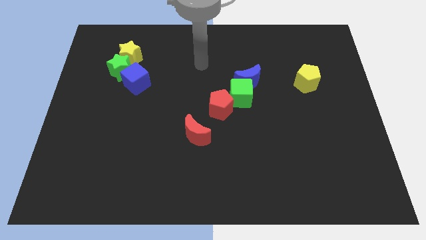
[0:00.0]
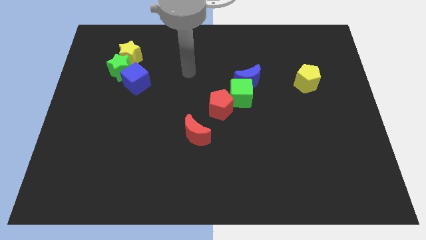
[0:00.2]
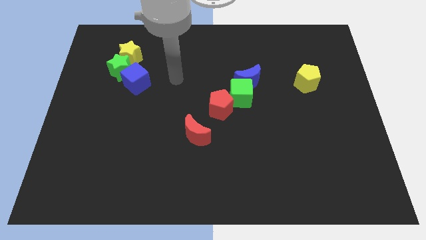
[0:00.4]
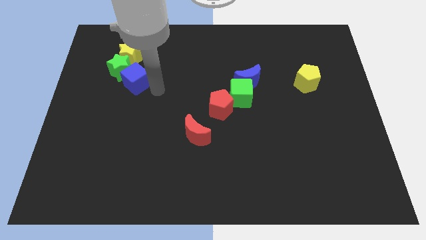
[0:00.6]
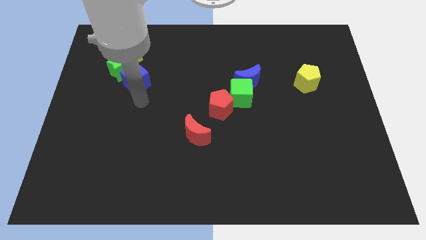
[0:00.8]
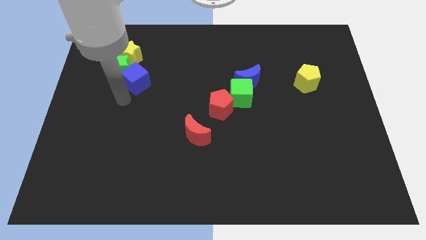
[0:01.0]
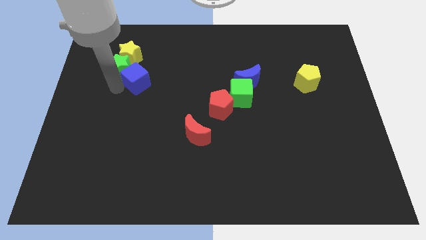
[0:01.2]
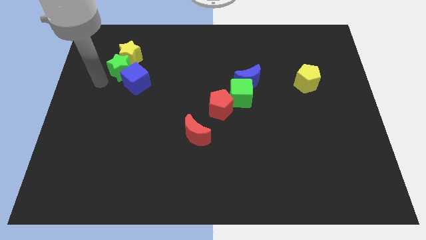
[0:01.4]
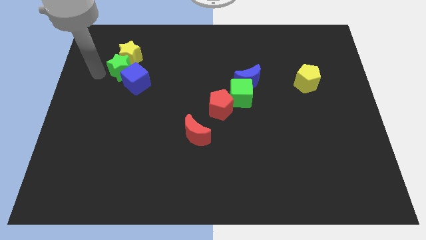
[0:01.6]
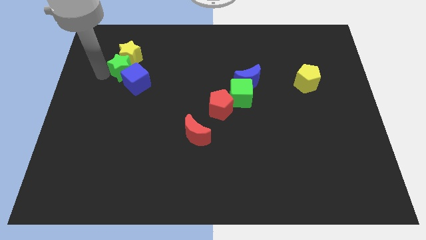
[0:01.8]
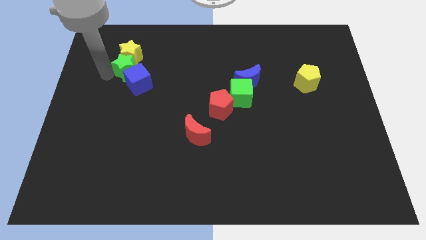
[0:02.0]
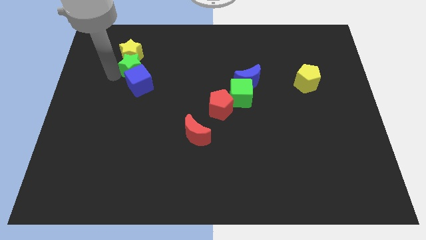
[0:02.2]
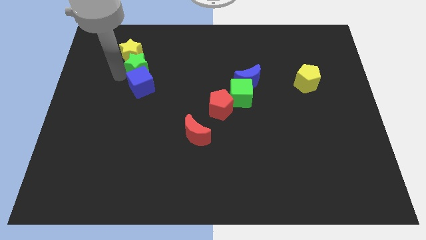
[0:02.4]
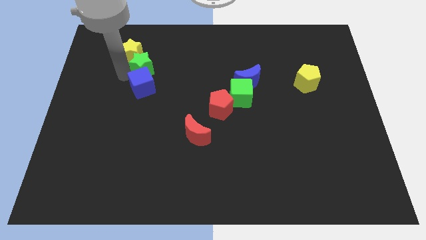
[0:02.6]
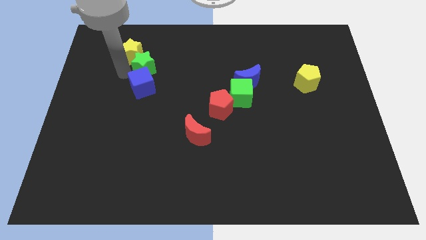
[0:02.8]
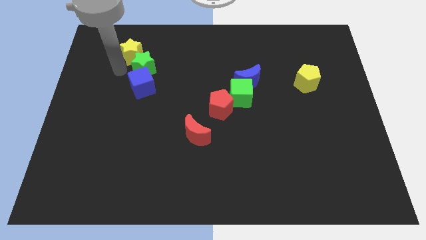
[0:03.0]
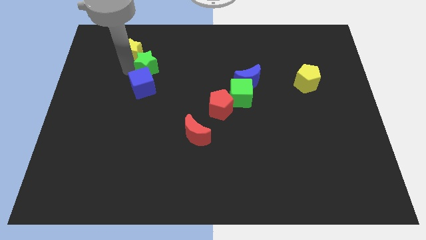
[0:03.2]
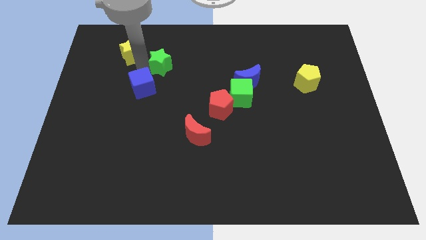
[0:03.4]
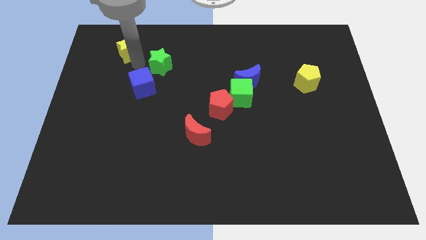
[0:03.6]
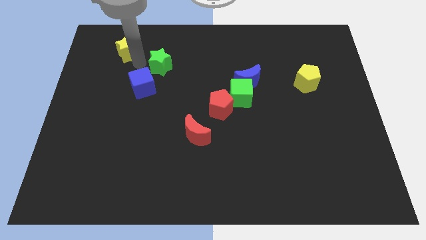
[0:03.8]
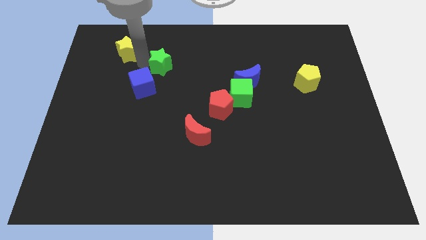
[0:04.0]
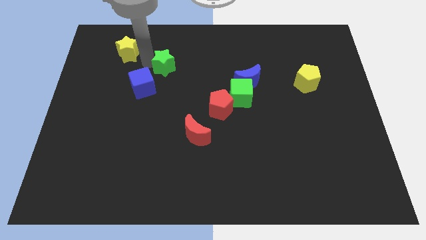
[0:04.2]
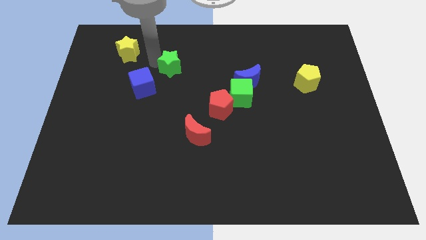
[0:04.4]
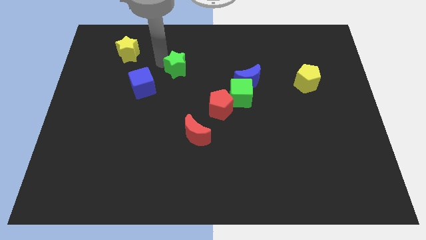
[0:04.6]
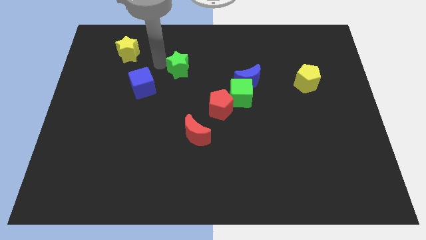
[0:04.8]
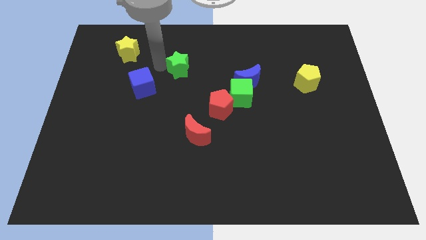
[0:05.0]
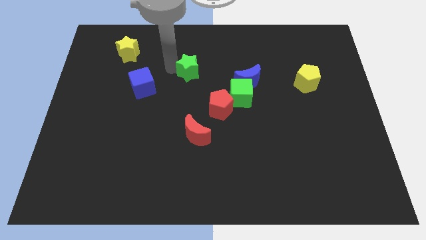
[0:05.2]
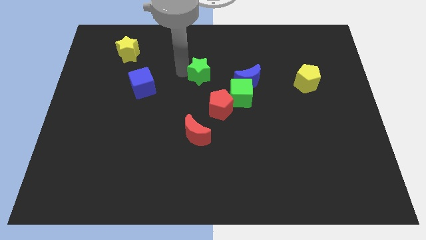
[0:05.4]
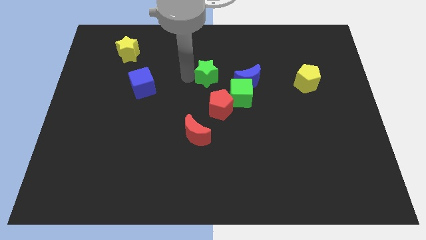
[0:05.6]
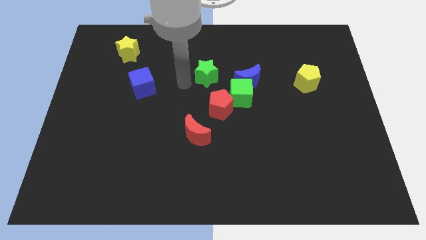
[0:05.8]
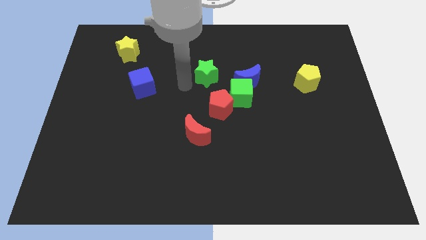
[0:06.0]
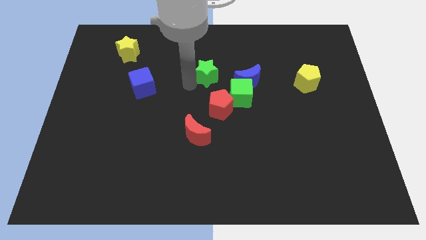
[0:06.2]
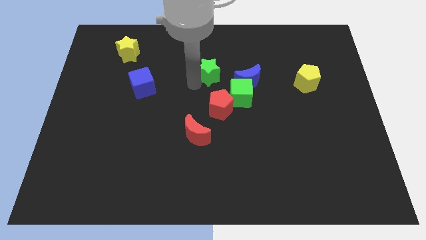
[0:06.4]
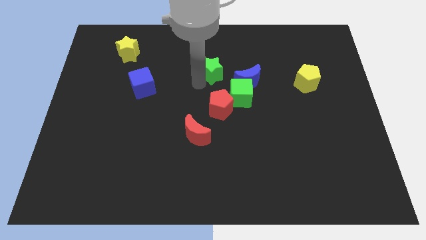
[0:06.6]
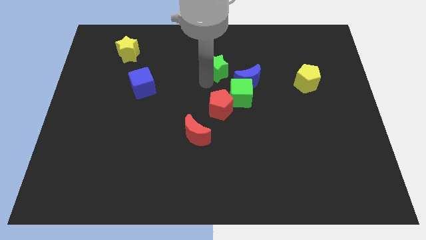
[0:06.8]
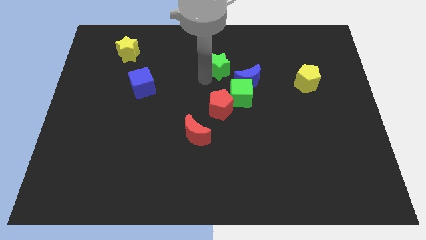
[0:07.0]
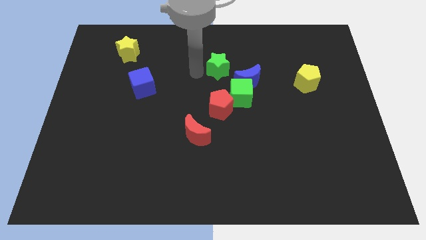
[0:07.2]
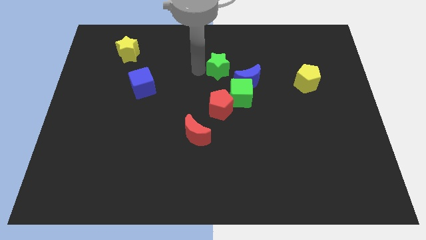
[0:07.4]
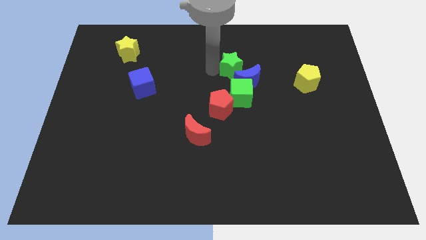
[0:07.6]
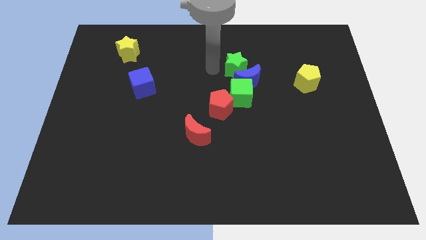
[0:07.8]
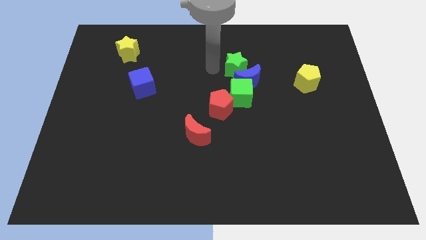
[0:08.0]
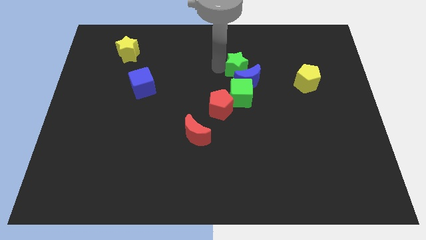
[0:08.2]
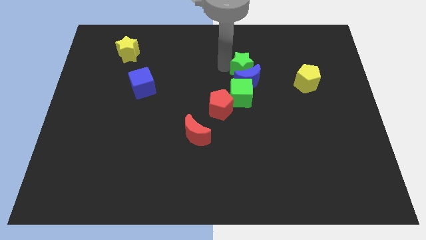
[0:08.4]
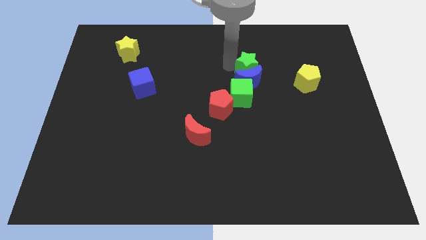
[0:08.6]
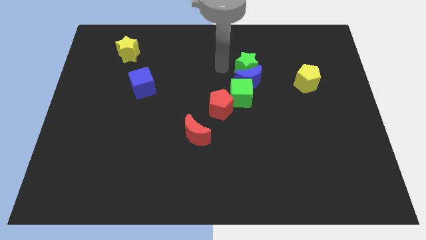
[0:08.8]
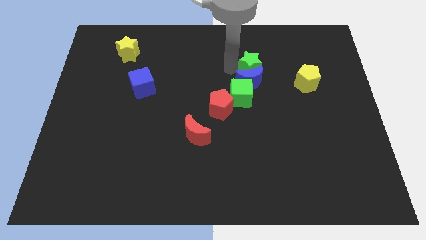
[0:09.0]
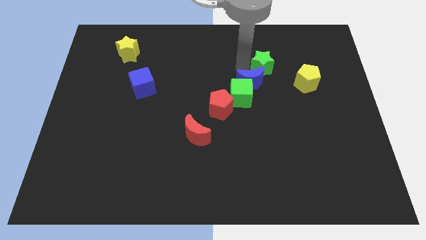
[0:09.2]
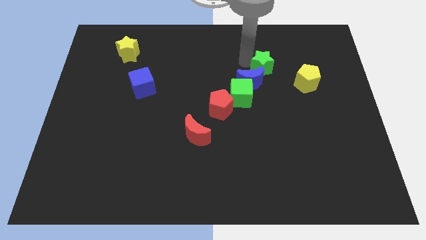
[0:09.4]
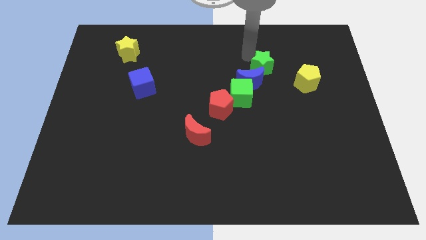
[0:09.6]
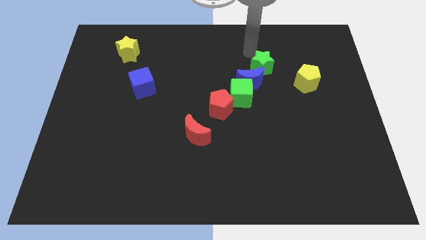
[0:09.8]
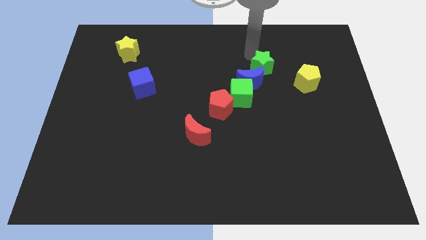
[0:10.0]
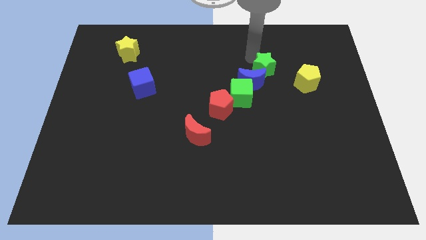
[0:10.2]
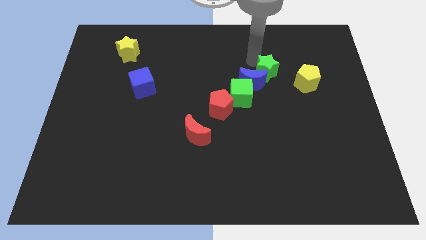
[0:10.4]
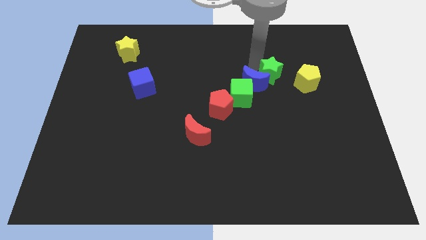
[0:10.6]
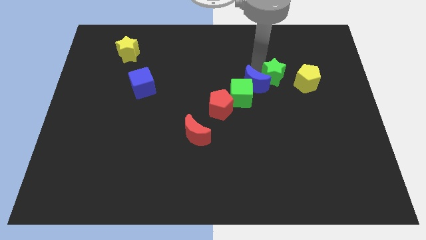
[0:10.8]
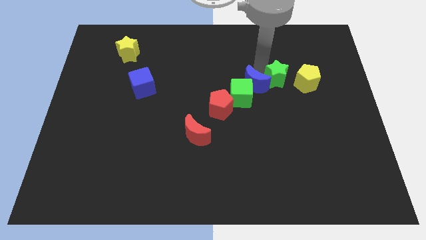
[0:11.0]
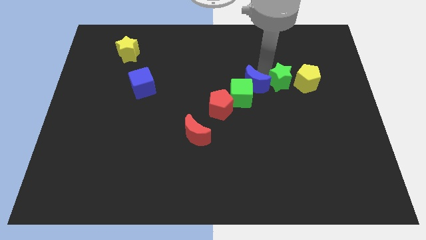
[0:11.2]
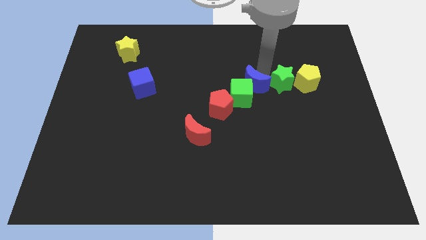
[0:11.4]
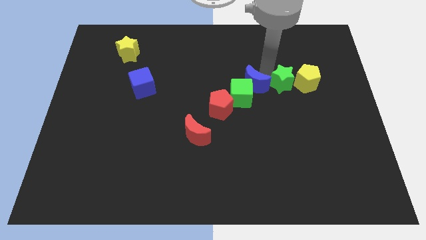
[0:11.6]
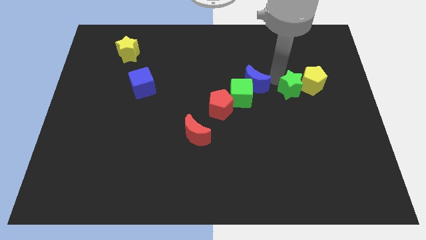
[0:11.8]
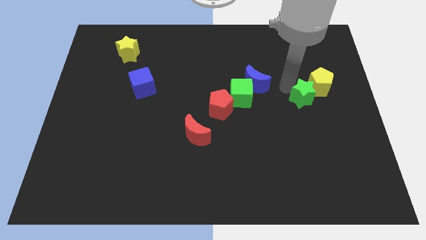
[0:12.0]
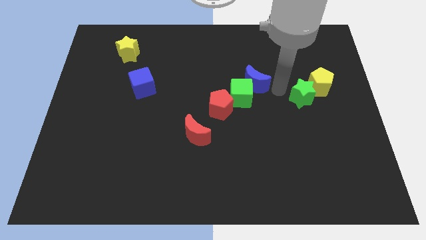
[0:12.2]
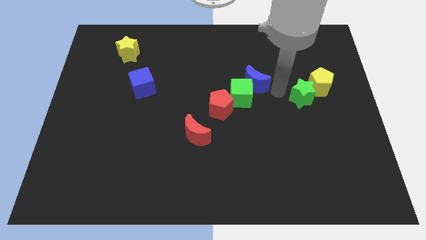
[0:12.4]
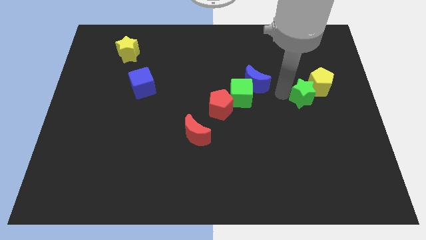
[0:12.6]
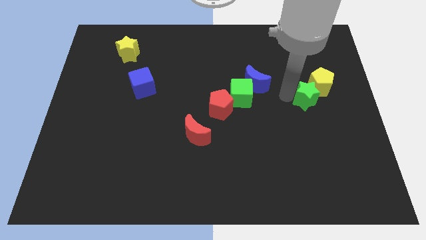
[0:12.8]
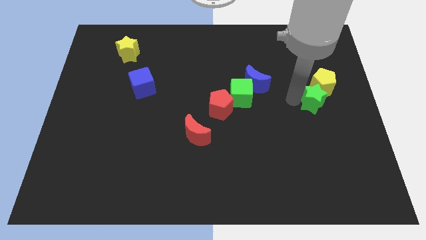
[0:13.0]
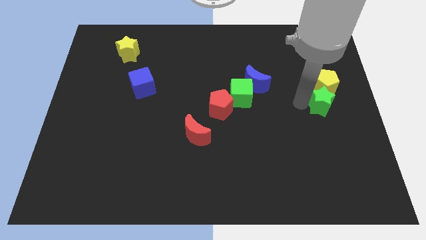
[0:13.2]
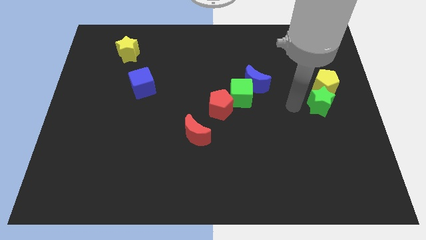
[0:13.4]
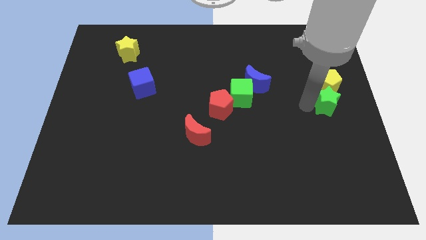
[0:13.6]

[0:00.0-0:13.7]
slide the green star to the bottom right side of the yellow pentagon

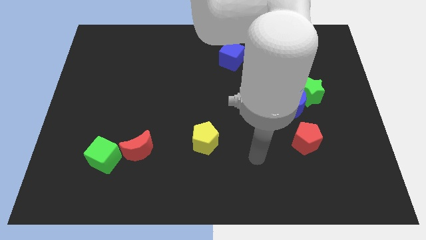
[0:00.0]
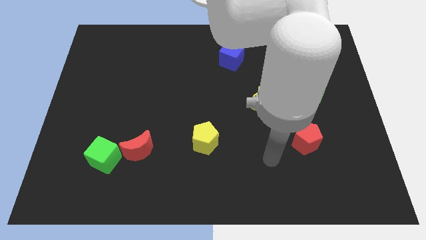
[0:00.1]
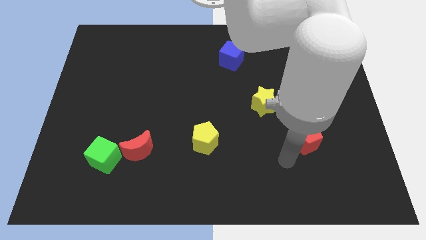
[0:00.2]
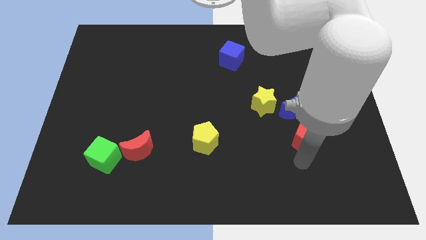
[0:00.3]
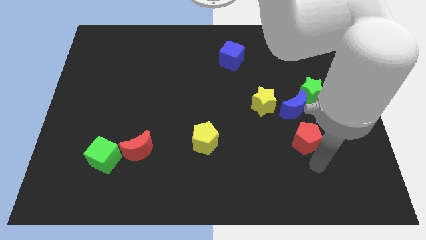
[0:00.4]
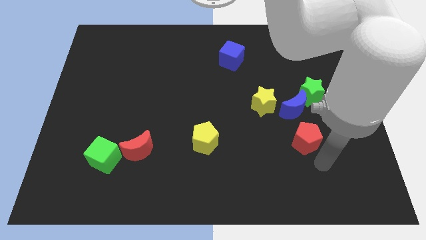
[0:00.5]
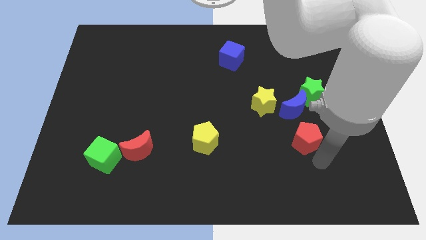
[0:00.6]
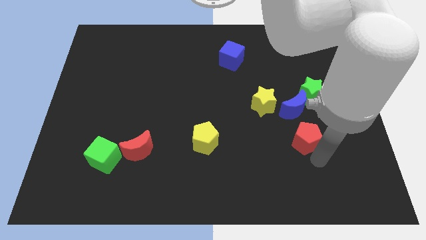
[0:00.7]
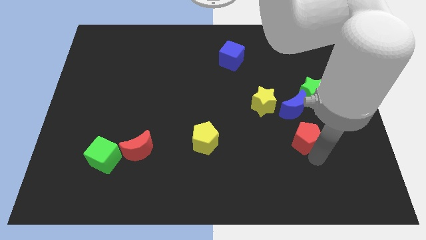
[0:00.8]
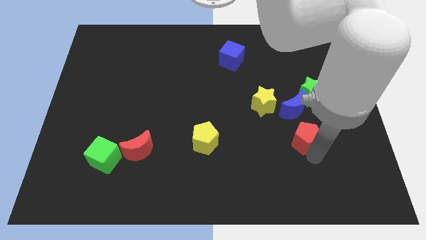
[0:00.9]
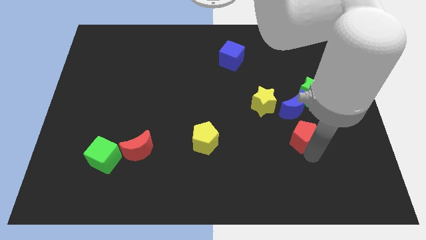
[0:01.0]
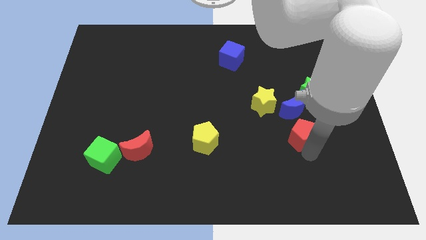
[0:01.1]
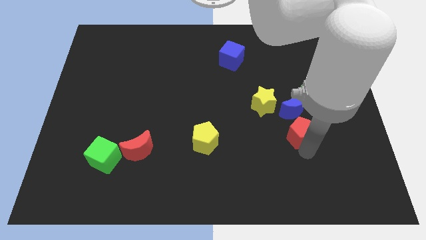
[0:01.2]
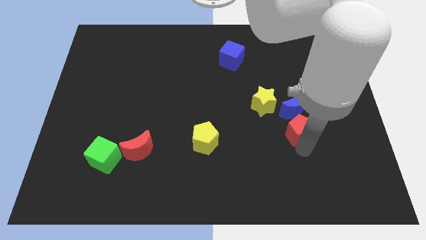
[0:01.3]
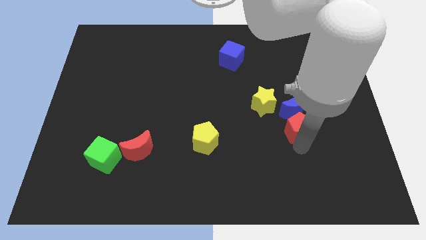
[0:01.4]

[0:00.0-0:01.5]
slide the red pentagon to the bottom left of the green star
